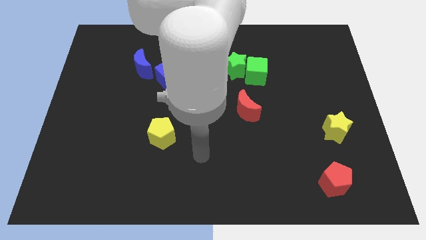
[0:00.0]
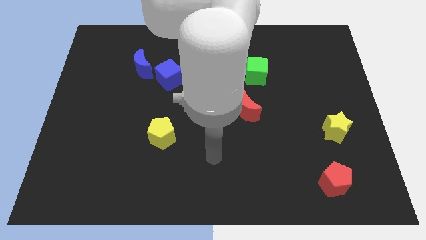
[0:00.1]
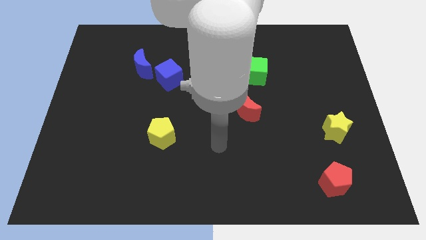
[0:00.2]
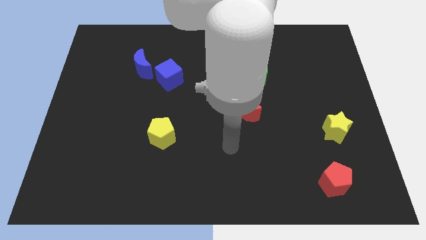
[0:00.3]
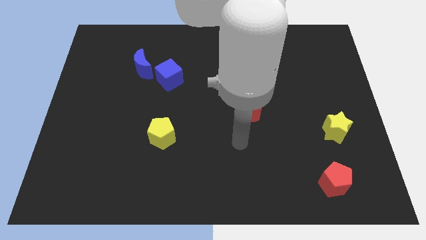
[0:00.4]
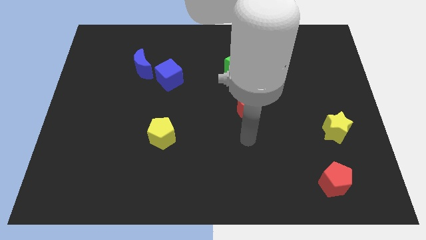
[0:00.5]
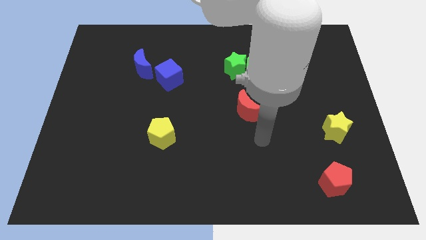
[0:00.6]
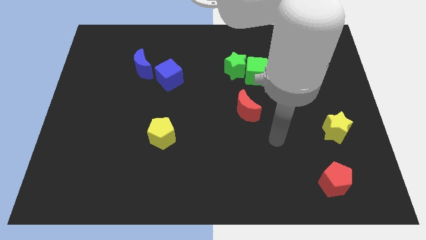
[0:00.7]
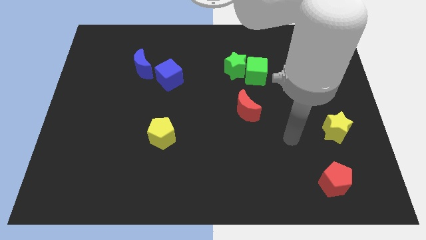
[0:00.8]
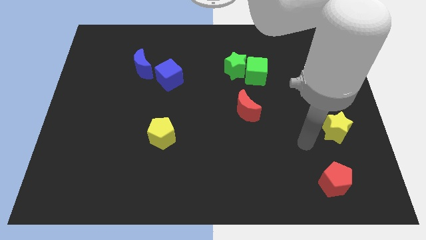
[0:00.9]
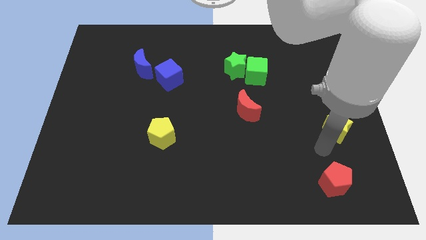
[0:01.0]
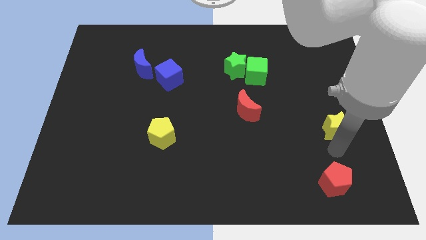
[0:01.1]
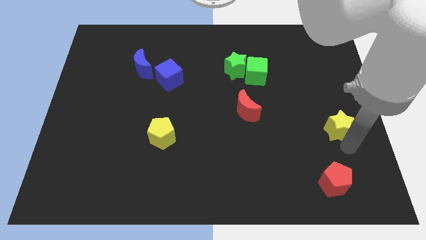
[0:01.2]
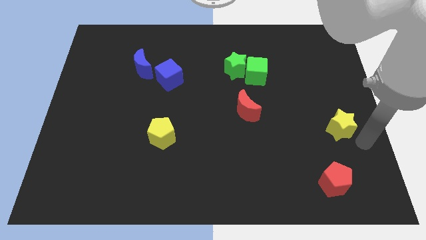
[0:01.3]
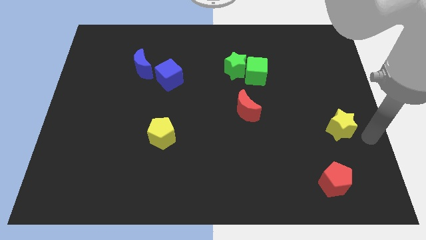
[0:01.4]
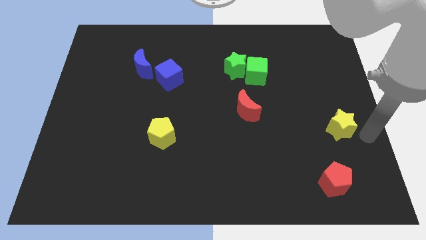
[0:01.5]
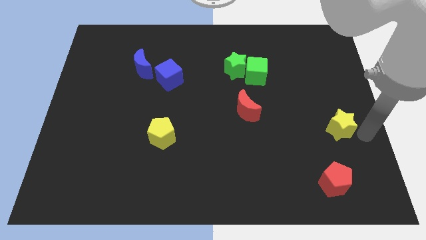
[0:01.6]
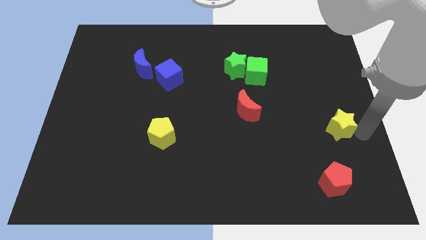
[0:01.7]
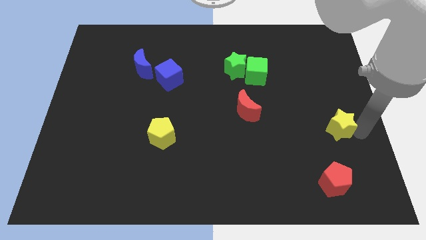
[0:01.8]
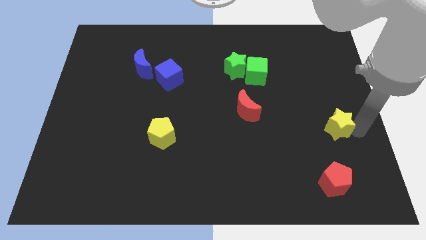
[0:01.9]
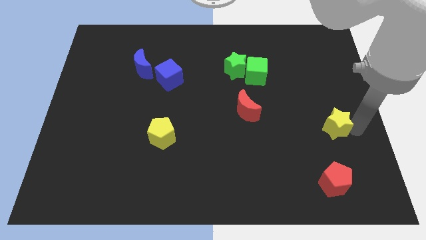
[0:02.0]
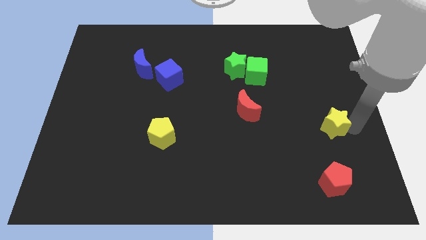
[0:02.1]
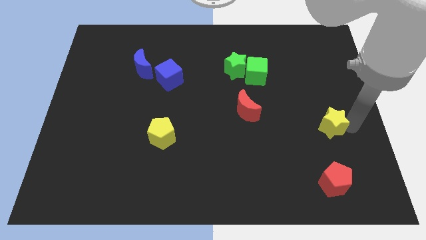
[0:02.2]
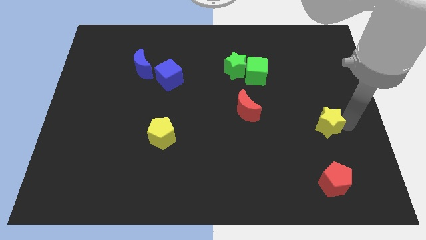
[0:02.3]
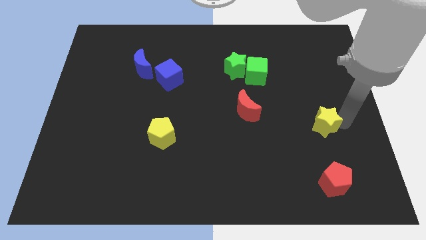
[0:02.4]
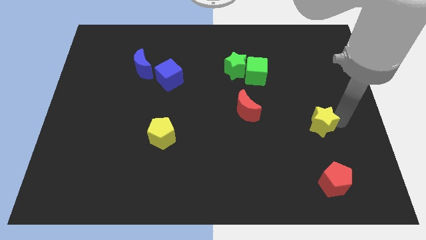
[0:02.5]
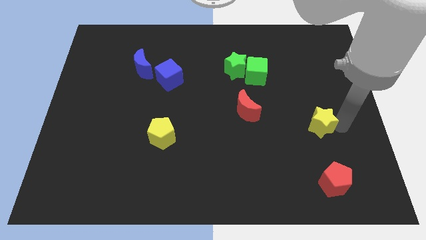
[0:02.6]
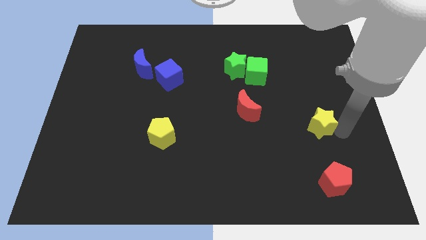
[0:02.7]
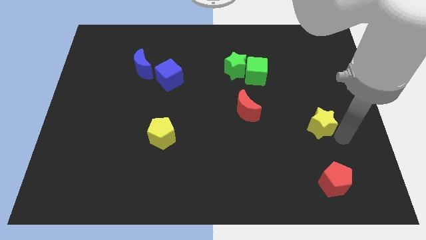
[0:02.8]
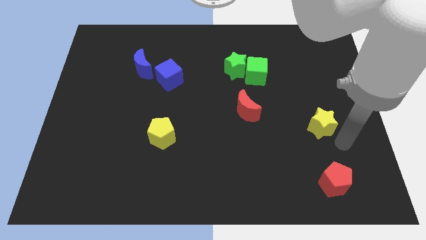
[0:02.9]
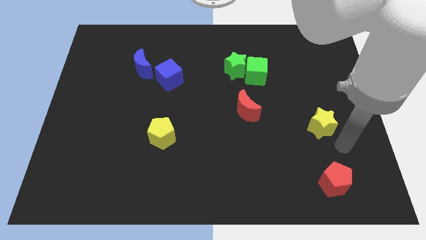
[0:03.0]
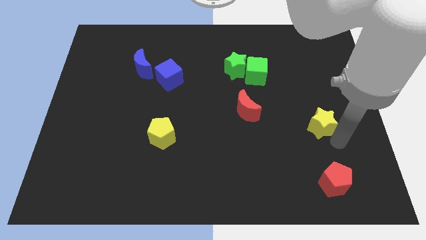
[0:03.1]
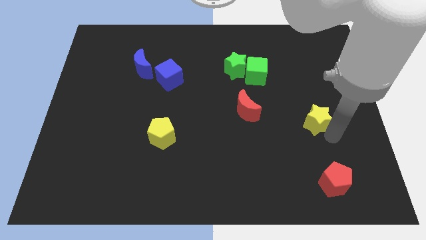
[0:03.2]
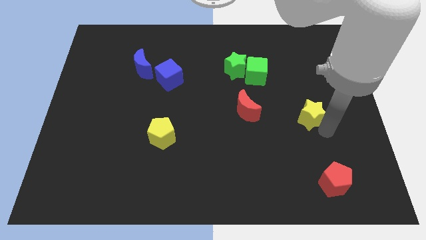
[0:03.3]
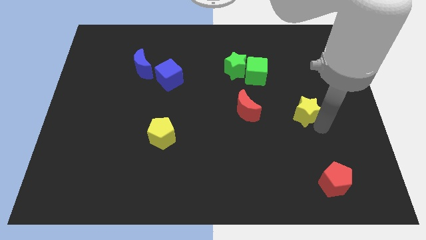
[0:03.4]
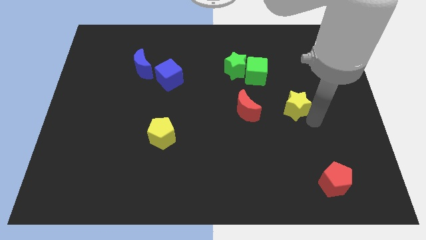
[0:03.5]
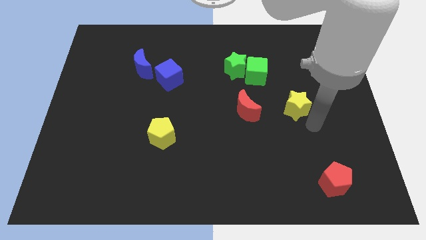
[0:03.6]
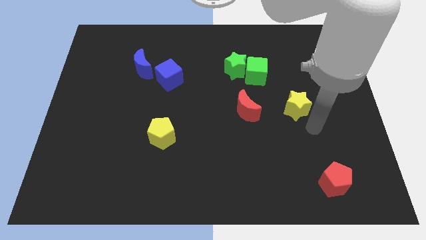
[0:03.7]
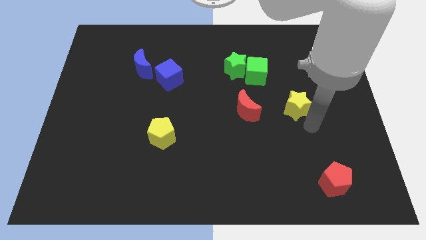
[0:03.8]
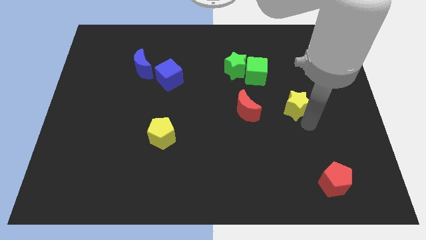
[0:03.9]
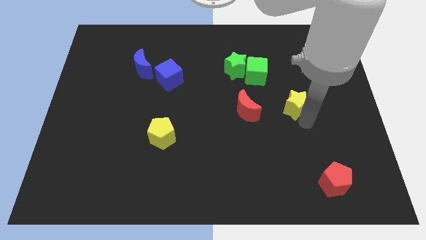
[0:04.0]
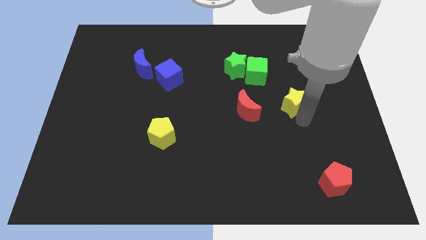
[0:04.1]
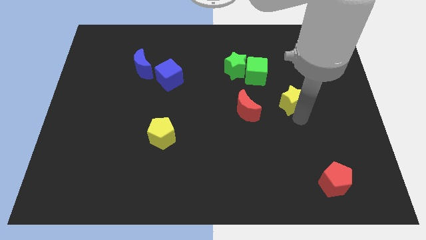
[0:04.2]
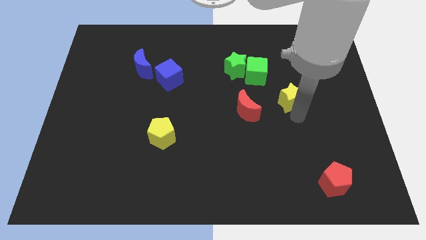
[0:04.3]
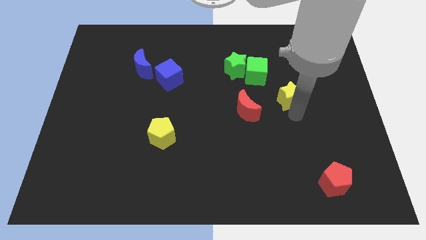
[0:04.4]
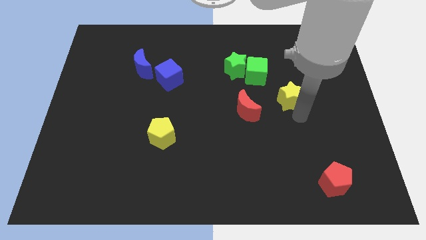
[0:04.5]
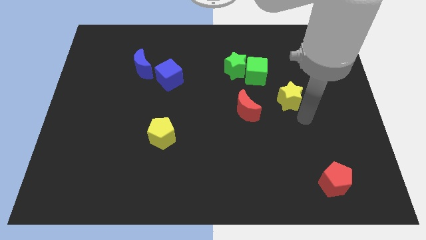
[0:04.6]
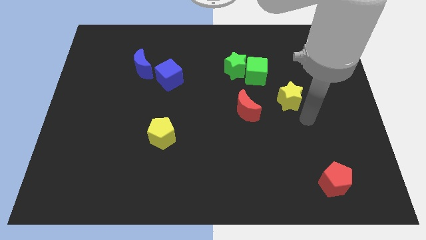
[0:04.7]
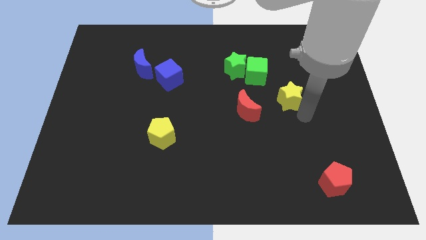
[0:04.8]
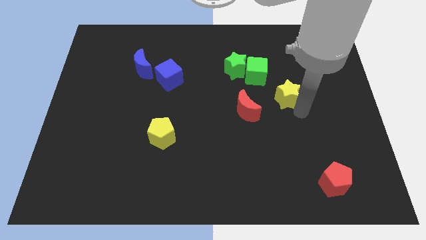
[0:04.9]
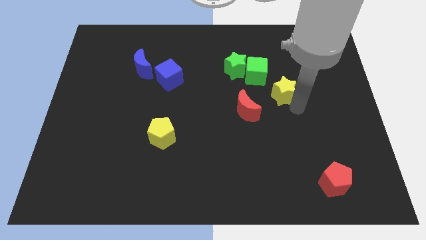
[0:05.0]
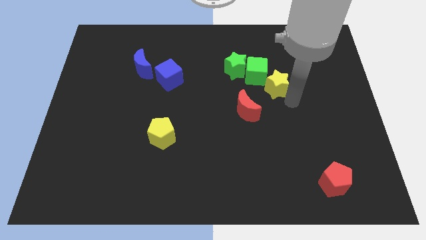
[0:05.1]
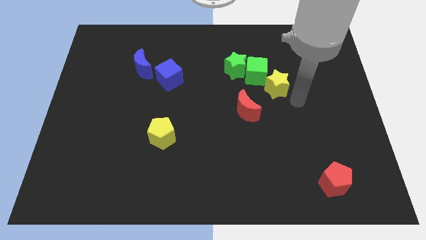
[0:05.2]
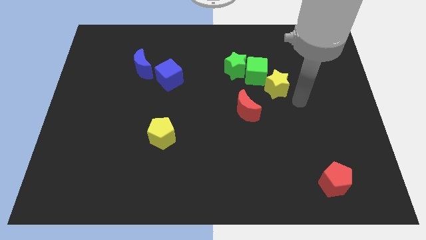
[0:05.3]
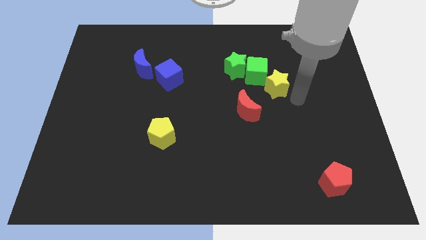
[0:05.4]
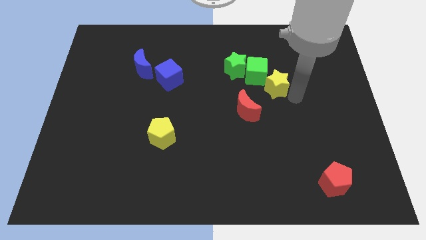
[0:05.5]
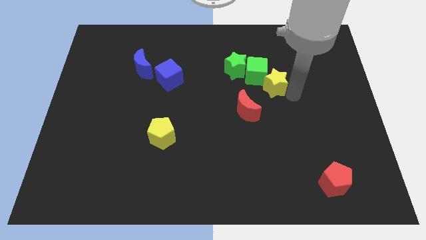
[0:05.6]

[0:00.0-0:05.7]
slide the yellow star to the green cube

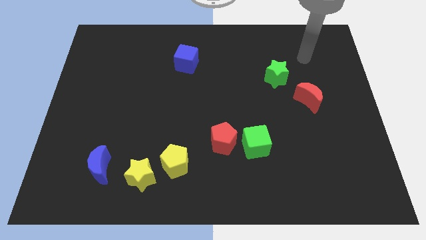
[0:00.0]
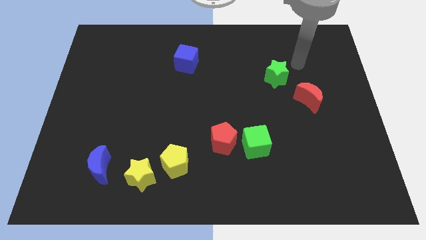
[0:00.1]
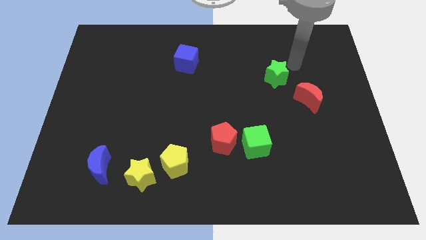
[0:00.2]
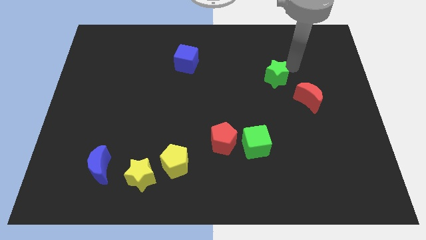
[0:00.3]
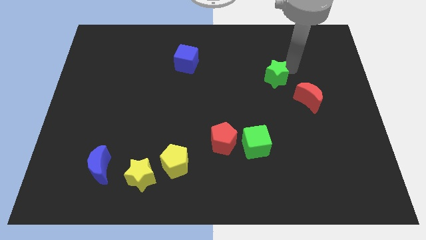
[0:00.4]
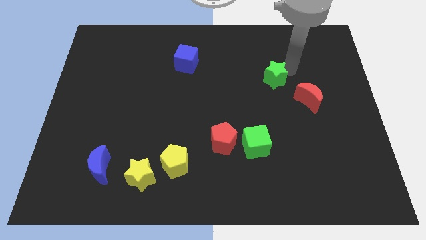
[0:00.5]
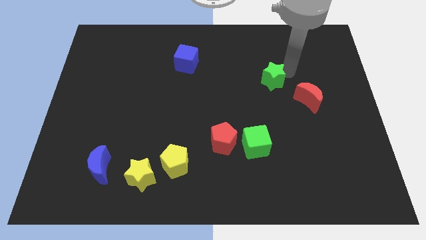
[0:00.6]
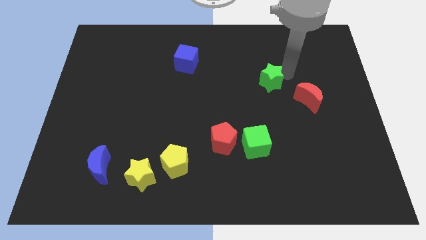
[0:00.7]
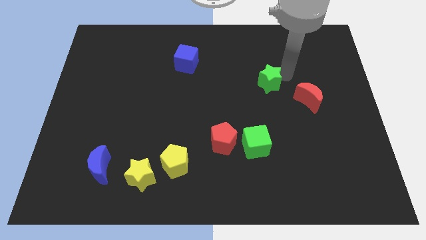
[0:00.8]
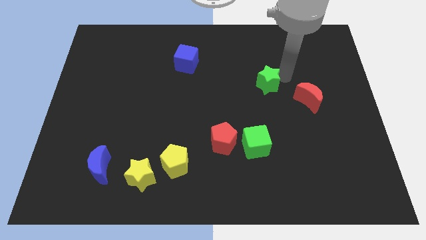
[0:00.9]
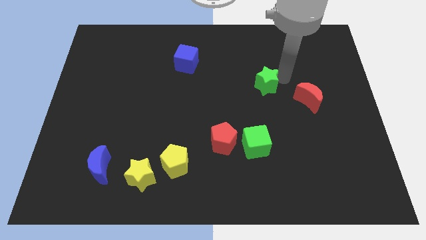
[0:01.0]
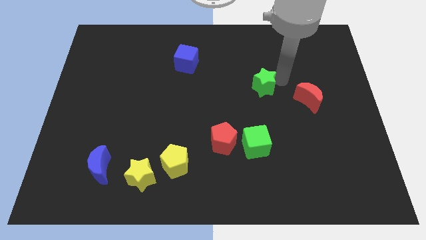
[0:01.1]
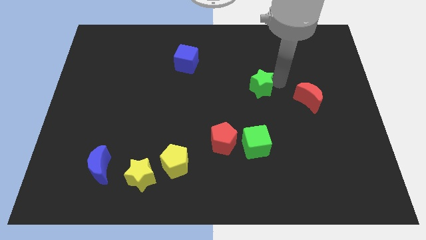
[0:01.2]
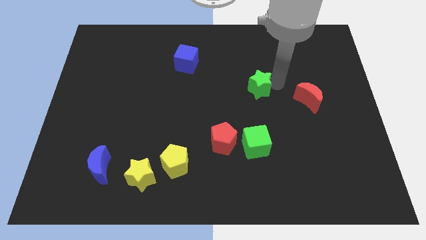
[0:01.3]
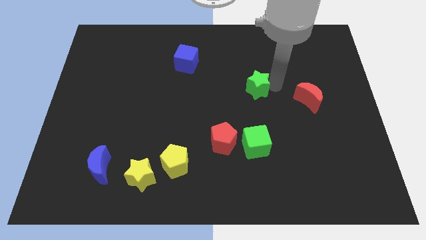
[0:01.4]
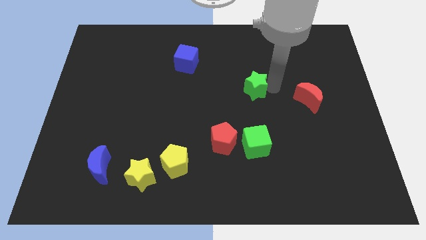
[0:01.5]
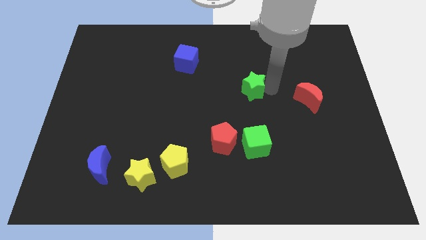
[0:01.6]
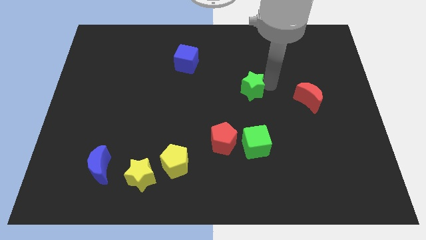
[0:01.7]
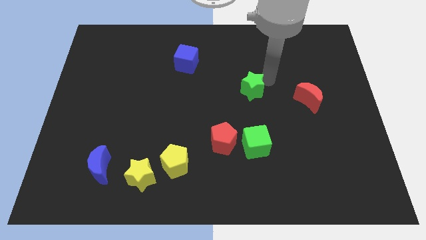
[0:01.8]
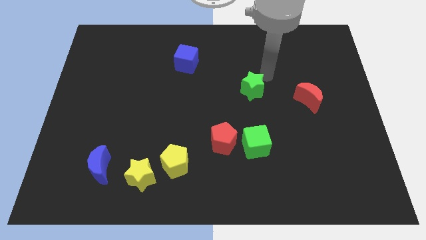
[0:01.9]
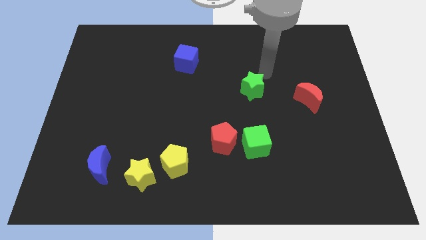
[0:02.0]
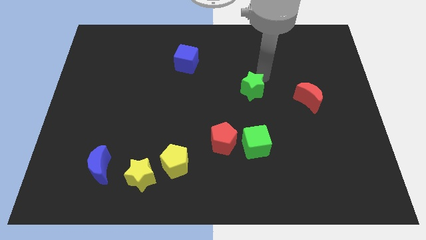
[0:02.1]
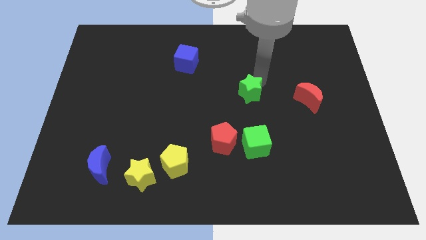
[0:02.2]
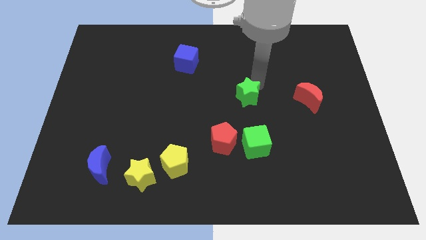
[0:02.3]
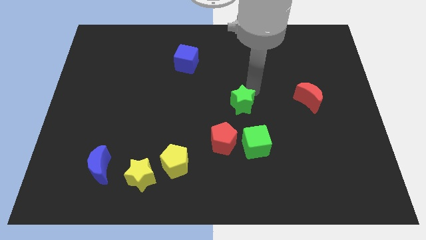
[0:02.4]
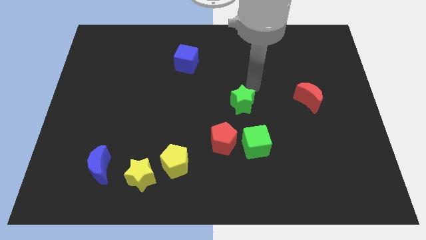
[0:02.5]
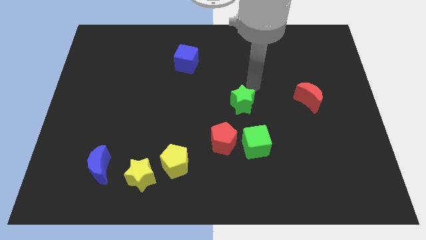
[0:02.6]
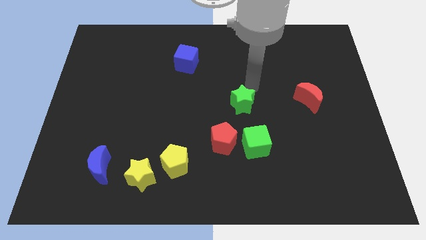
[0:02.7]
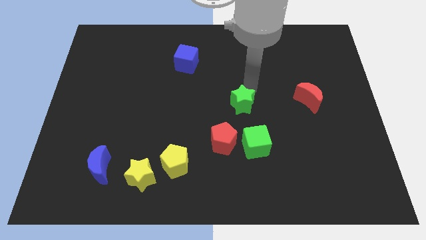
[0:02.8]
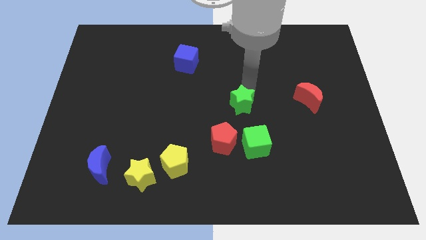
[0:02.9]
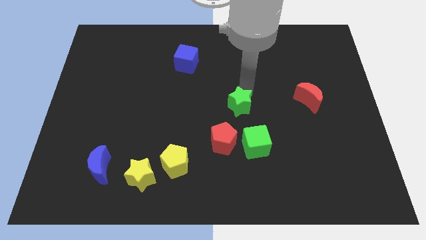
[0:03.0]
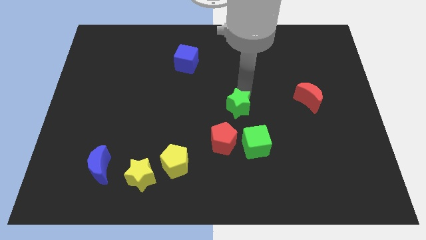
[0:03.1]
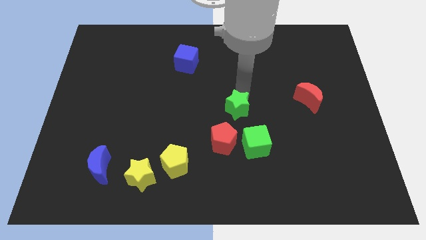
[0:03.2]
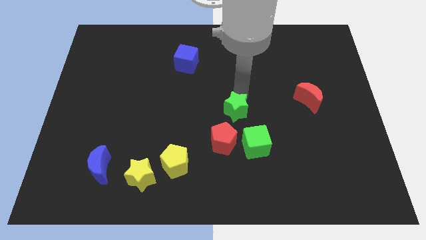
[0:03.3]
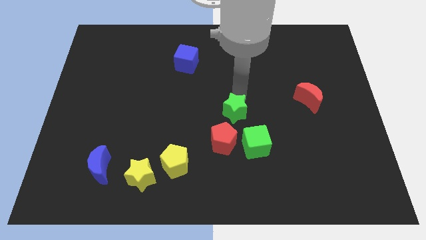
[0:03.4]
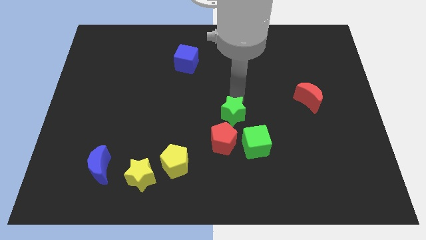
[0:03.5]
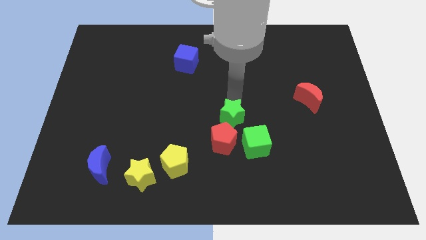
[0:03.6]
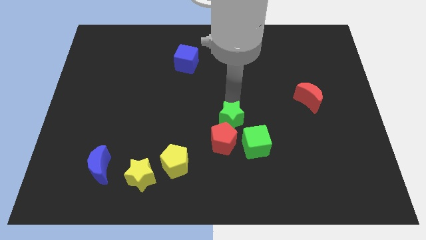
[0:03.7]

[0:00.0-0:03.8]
move the green star towards the red pentagon
